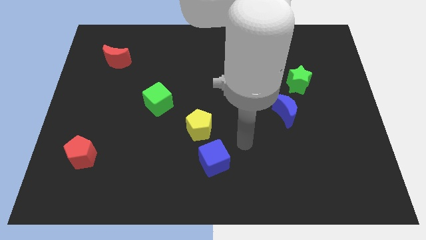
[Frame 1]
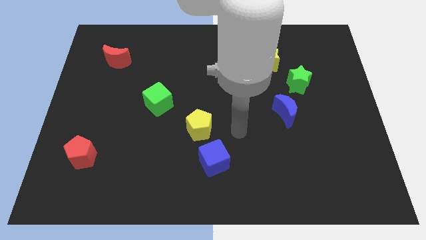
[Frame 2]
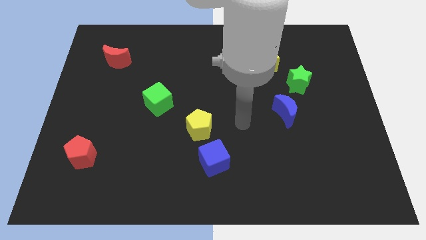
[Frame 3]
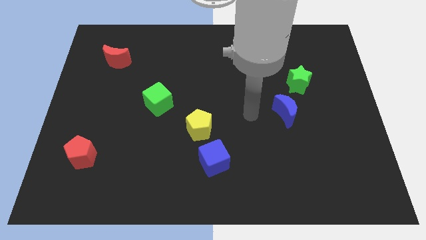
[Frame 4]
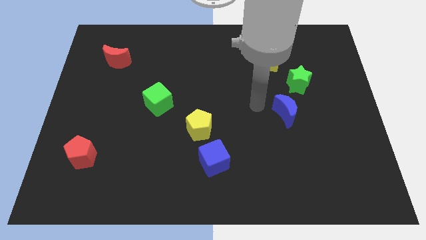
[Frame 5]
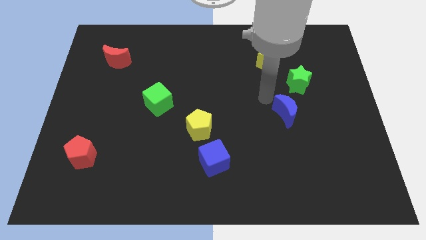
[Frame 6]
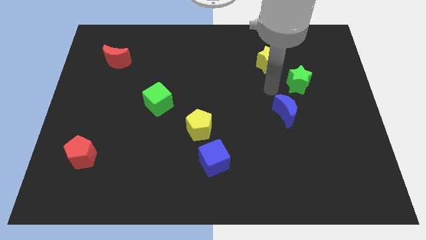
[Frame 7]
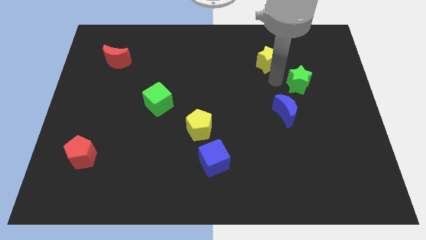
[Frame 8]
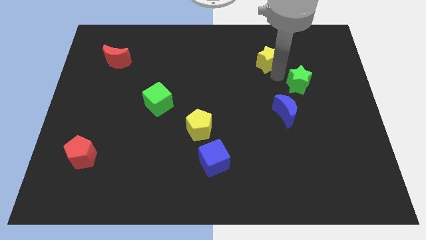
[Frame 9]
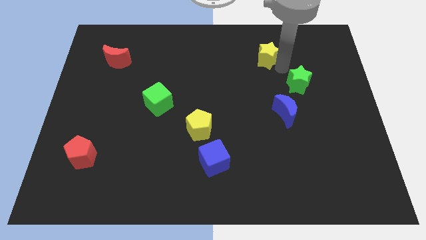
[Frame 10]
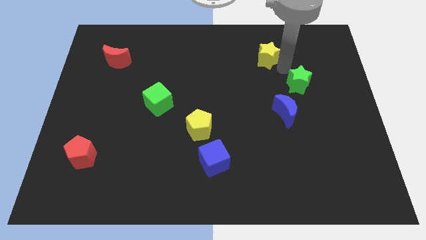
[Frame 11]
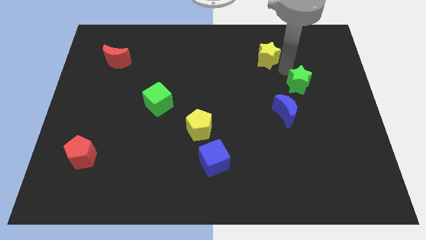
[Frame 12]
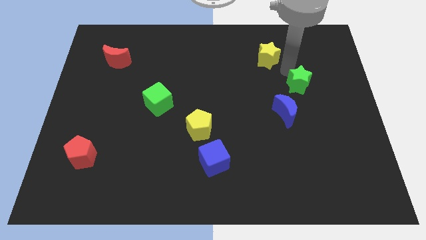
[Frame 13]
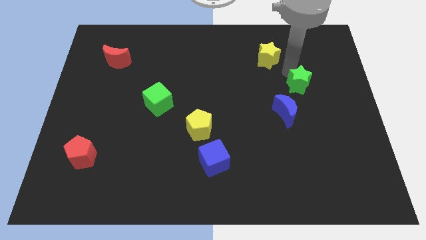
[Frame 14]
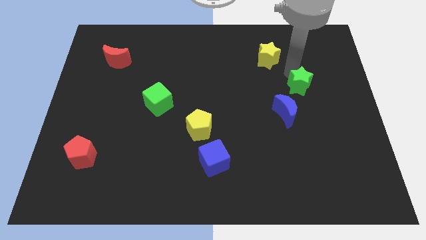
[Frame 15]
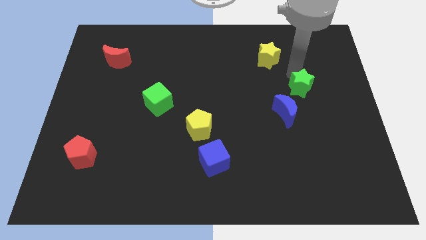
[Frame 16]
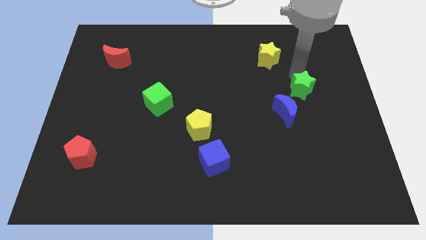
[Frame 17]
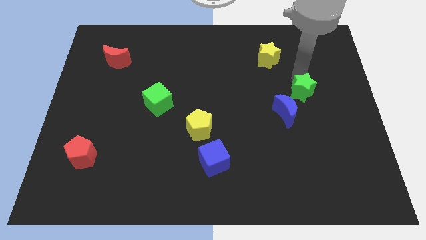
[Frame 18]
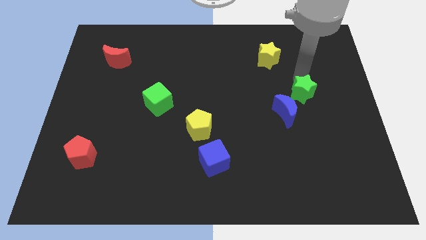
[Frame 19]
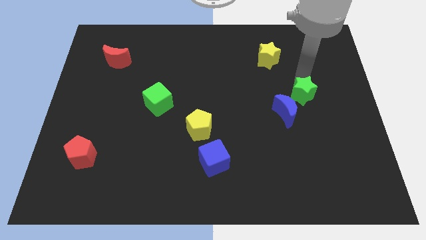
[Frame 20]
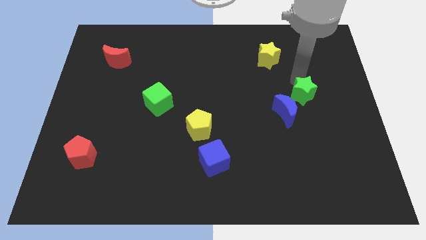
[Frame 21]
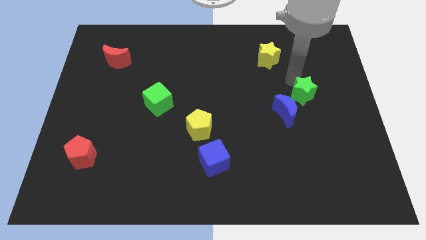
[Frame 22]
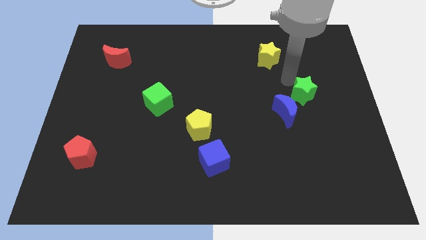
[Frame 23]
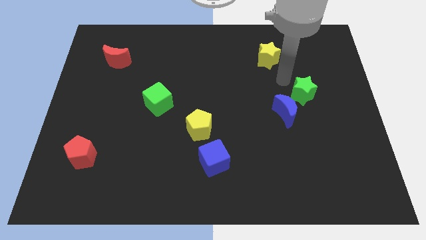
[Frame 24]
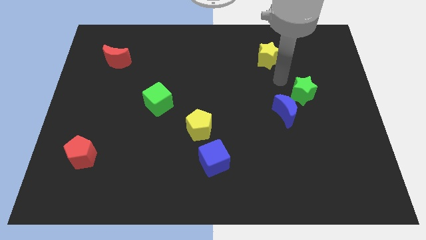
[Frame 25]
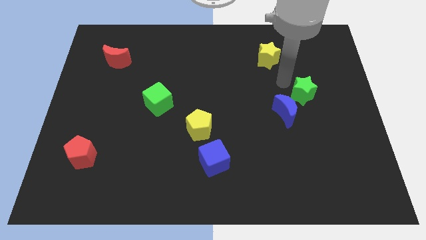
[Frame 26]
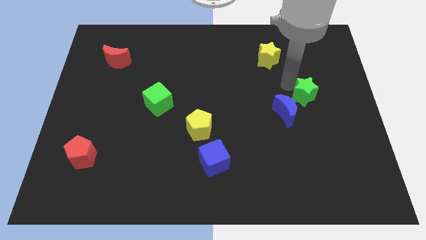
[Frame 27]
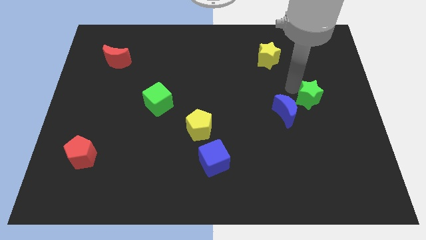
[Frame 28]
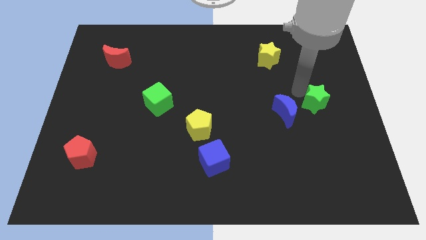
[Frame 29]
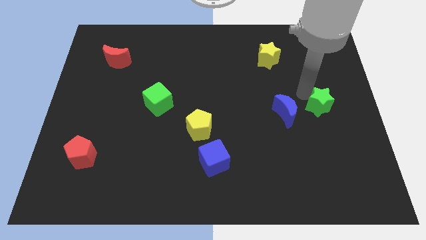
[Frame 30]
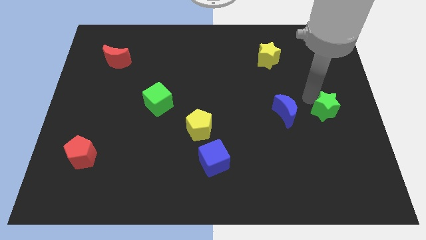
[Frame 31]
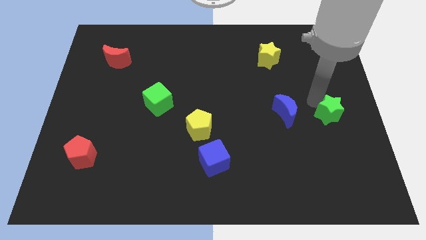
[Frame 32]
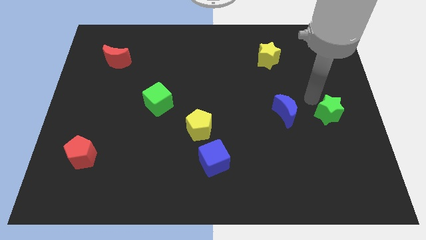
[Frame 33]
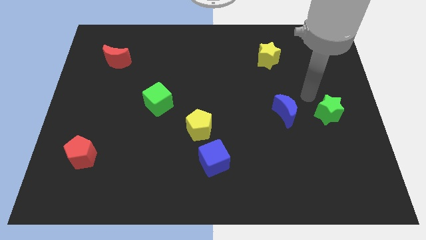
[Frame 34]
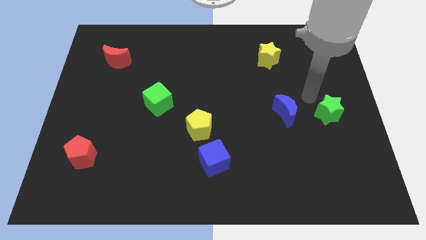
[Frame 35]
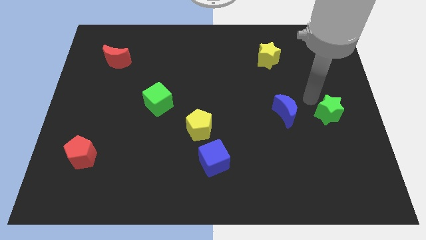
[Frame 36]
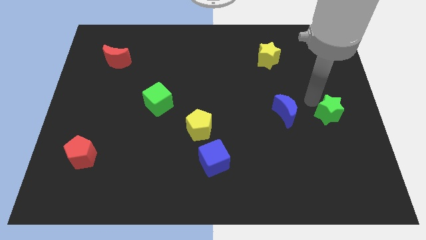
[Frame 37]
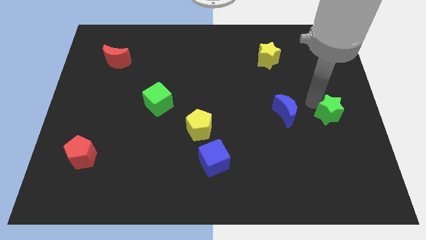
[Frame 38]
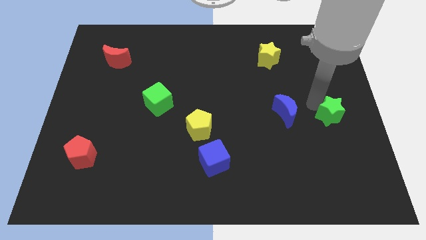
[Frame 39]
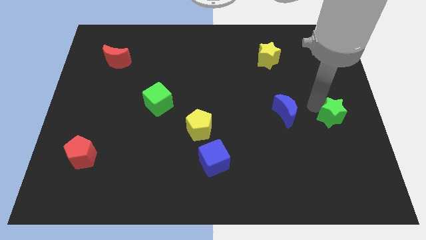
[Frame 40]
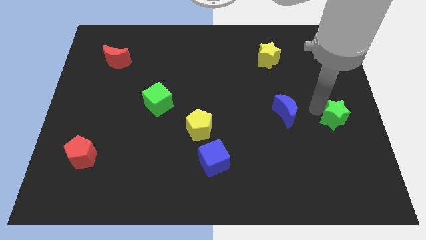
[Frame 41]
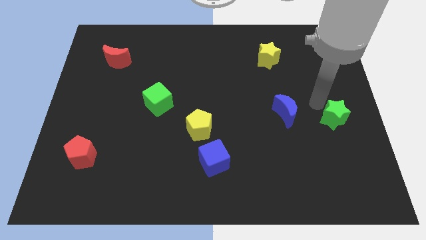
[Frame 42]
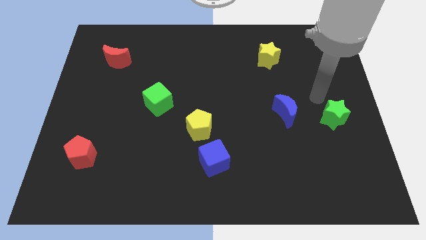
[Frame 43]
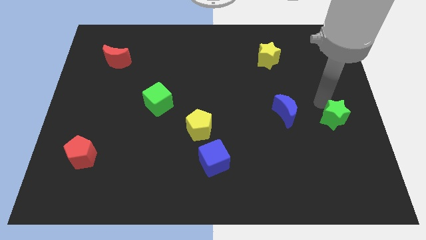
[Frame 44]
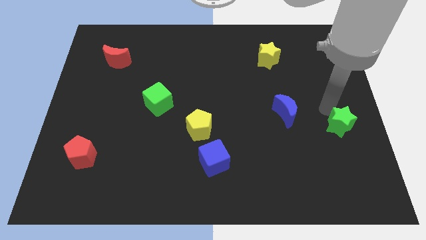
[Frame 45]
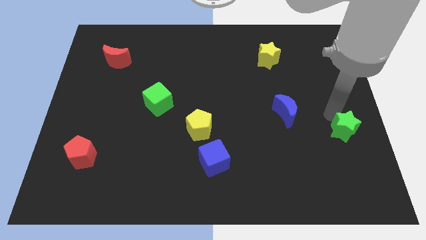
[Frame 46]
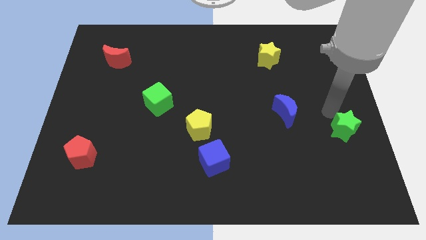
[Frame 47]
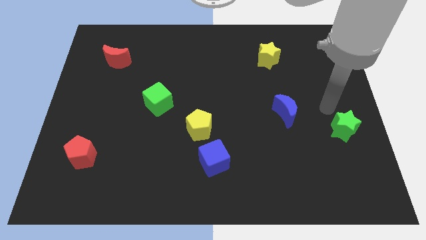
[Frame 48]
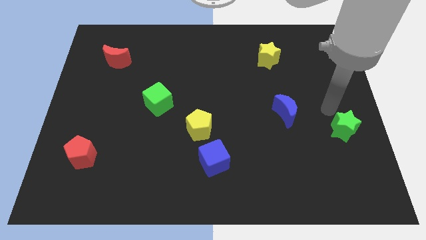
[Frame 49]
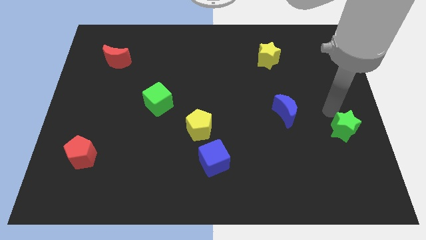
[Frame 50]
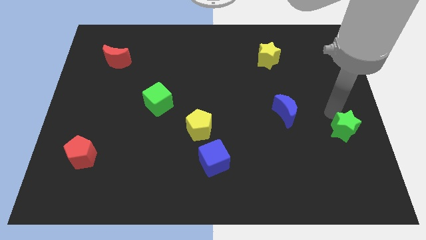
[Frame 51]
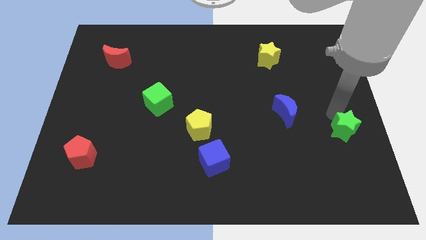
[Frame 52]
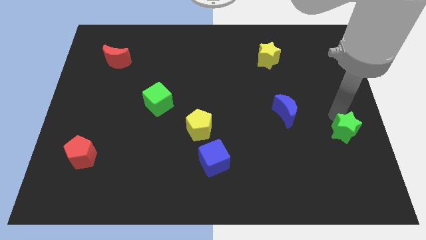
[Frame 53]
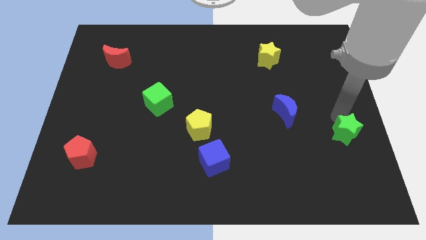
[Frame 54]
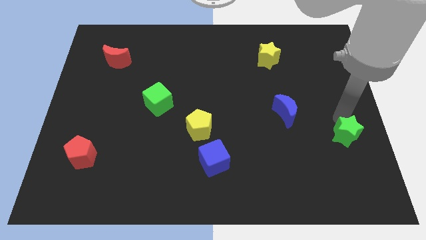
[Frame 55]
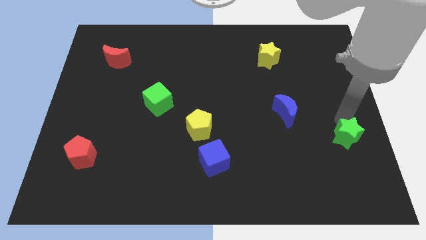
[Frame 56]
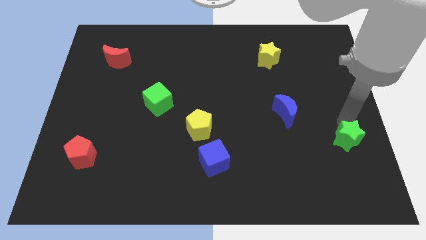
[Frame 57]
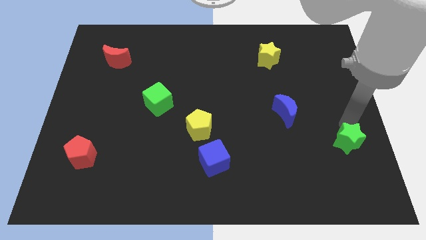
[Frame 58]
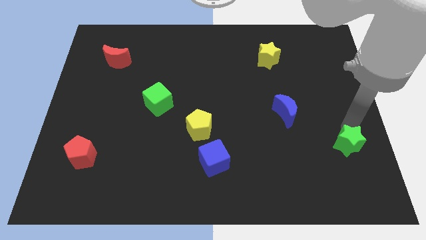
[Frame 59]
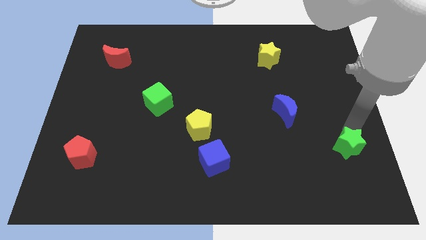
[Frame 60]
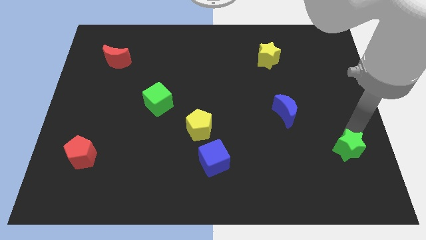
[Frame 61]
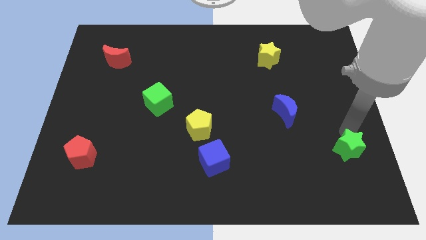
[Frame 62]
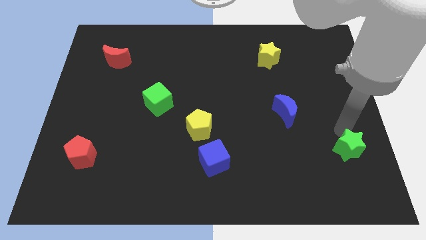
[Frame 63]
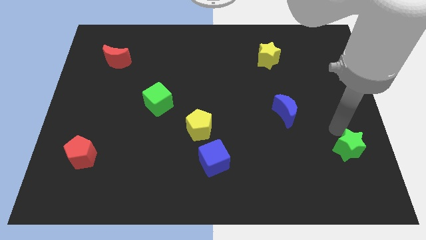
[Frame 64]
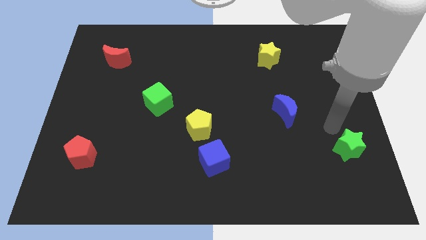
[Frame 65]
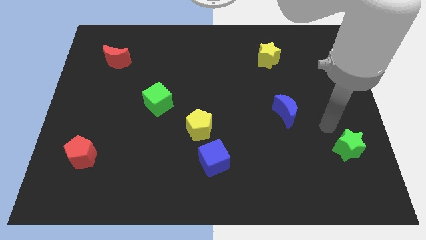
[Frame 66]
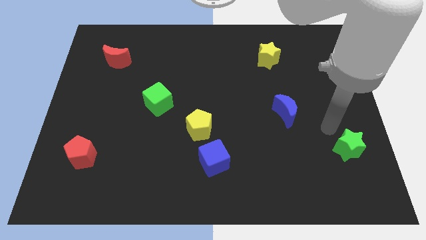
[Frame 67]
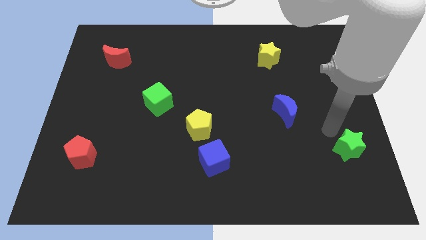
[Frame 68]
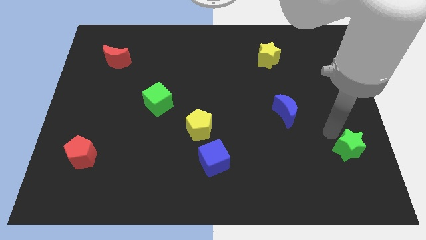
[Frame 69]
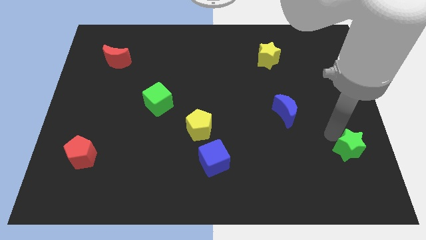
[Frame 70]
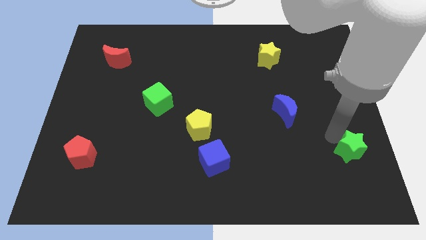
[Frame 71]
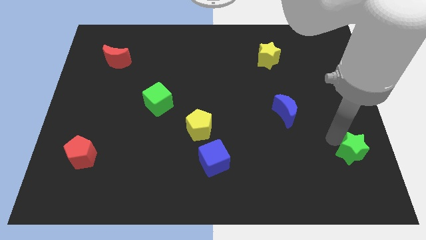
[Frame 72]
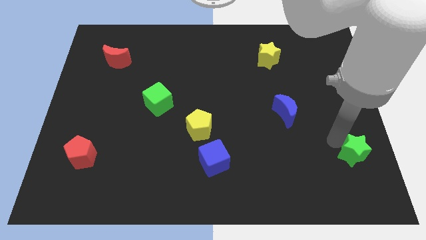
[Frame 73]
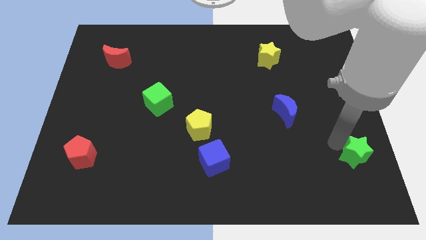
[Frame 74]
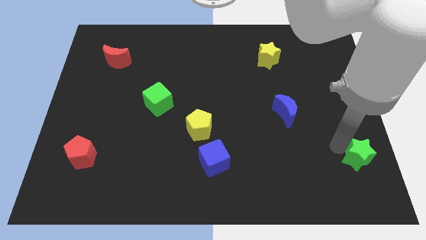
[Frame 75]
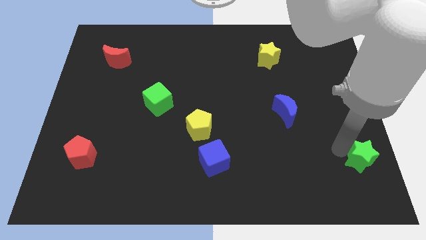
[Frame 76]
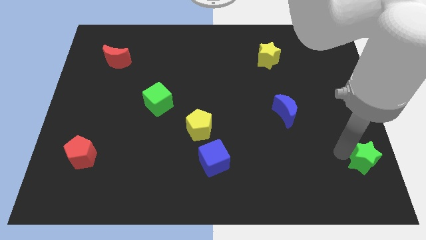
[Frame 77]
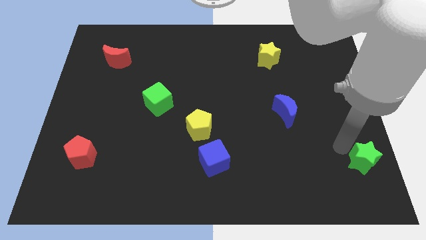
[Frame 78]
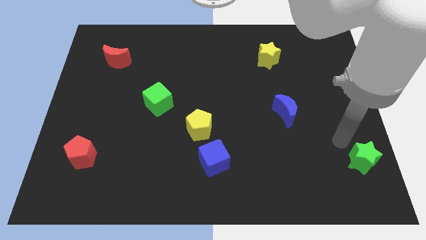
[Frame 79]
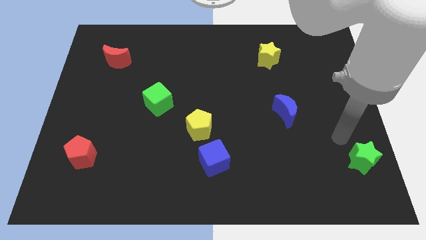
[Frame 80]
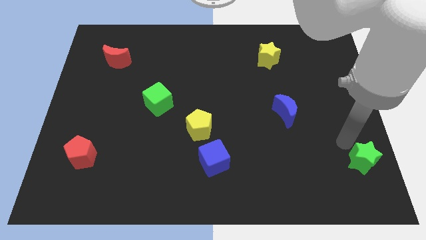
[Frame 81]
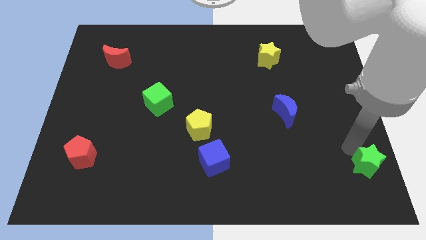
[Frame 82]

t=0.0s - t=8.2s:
put the green star to the lower right corner
